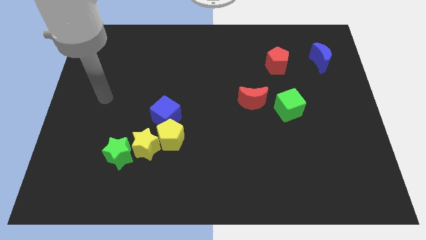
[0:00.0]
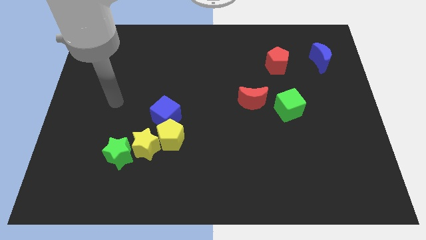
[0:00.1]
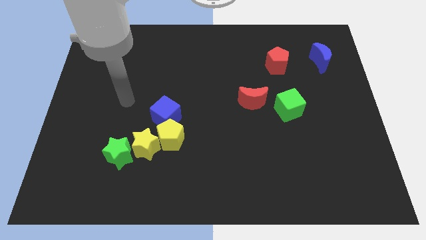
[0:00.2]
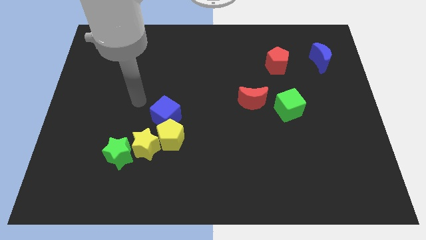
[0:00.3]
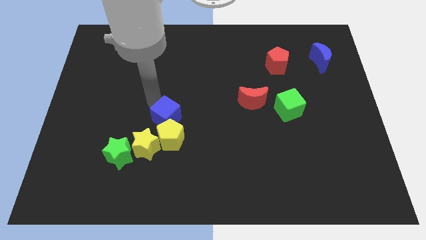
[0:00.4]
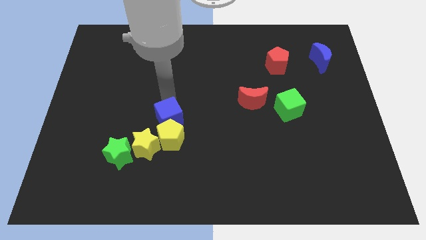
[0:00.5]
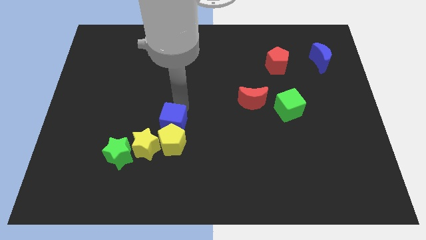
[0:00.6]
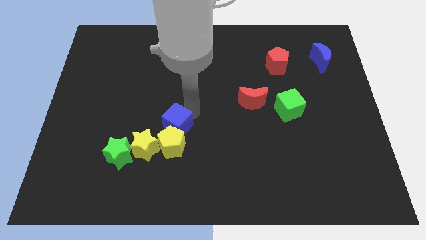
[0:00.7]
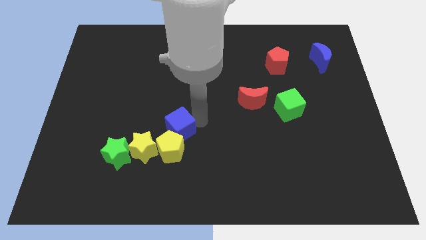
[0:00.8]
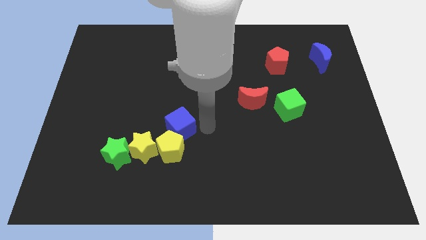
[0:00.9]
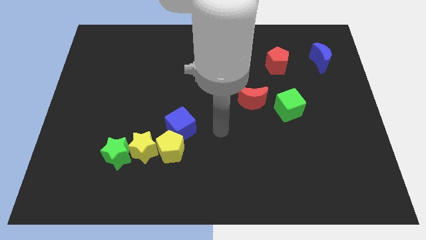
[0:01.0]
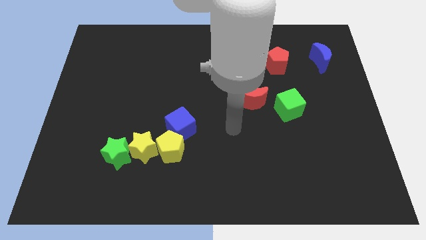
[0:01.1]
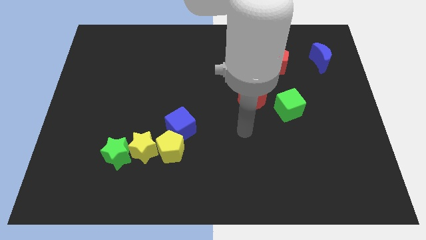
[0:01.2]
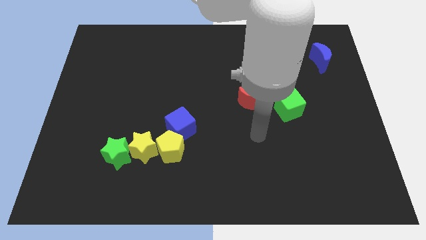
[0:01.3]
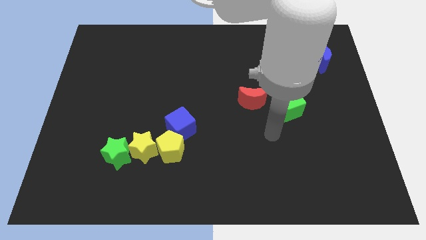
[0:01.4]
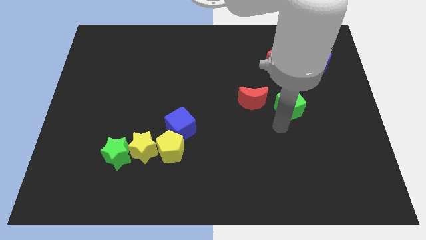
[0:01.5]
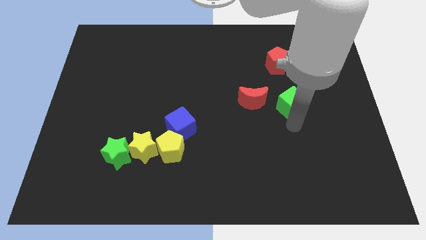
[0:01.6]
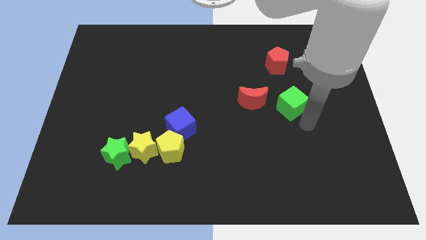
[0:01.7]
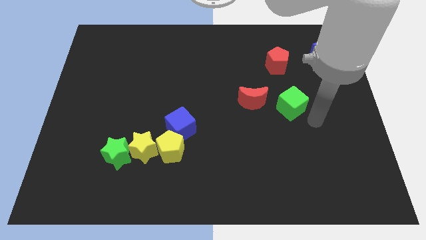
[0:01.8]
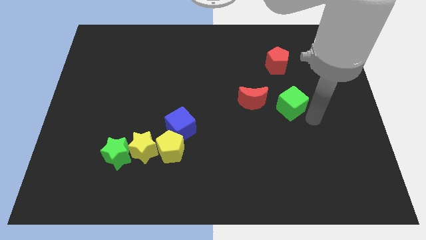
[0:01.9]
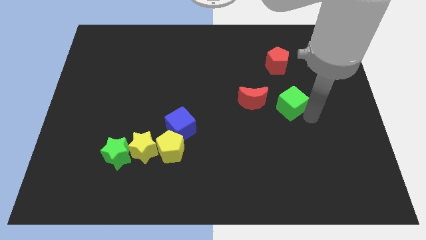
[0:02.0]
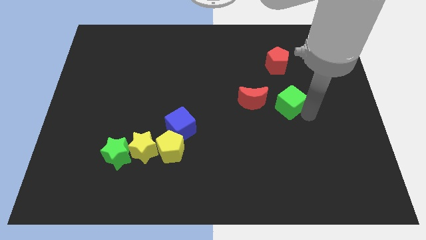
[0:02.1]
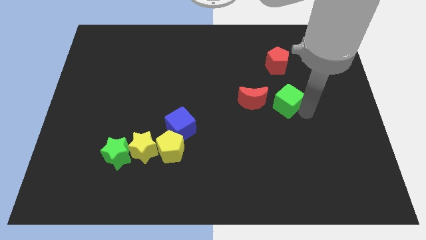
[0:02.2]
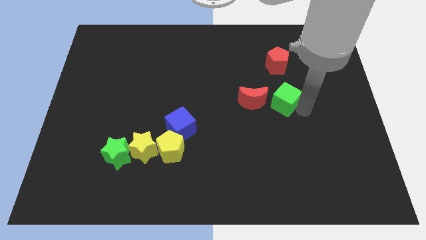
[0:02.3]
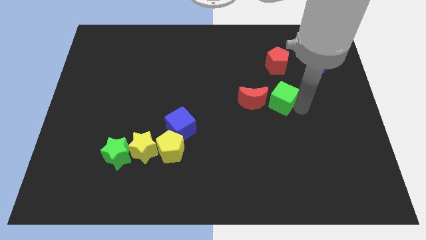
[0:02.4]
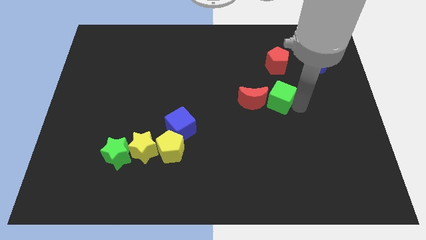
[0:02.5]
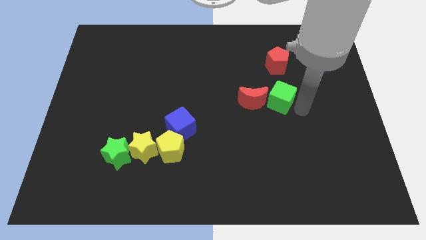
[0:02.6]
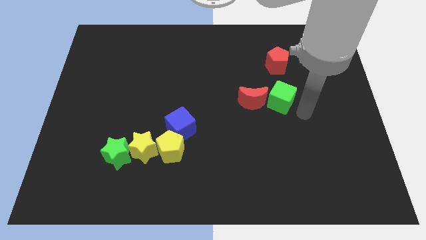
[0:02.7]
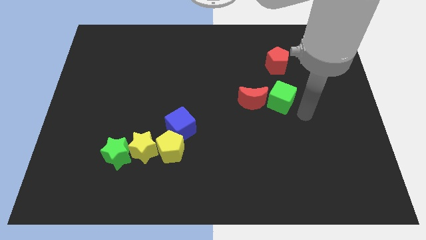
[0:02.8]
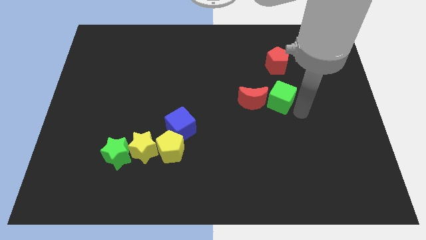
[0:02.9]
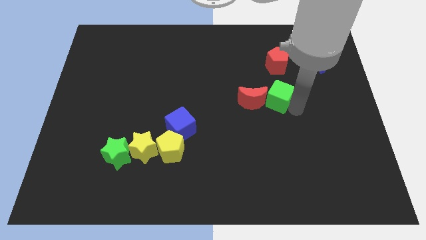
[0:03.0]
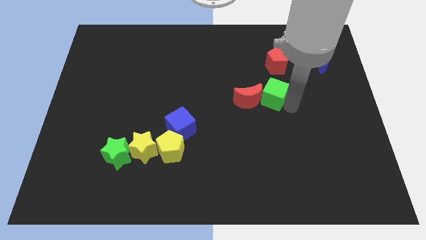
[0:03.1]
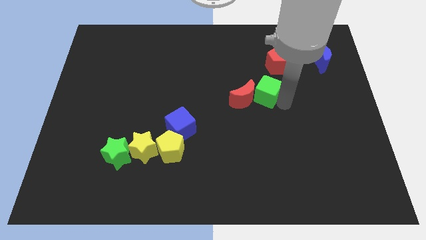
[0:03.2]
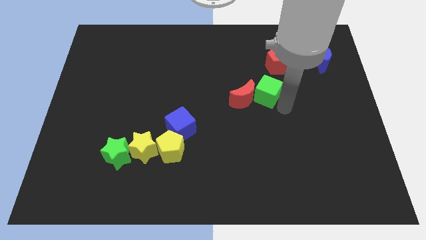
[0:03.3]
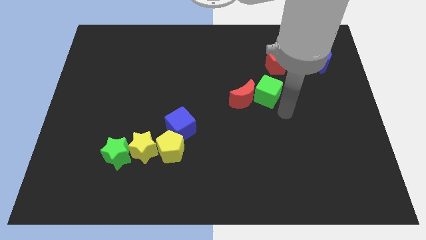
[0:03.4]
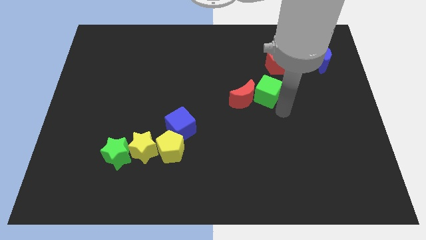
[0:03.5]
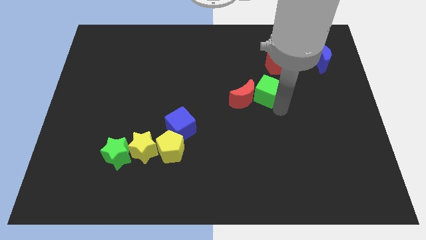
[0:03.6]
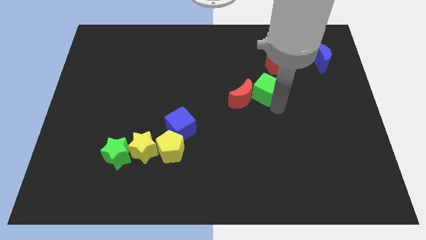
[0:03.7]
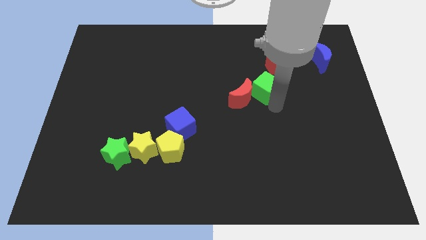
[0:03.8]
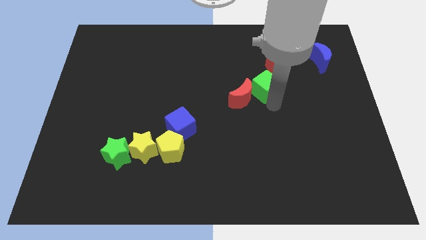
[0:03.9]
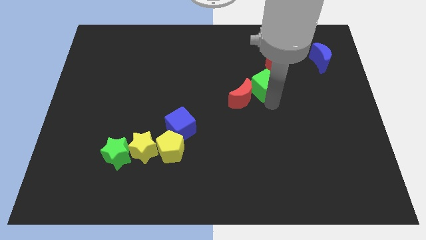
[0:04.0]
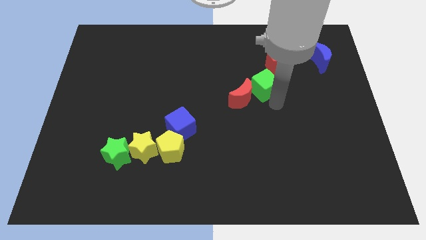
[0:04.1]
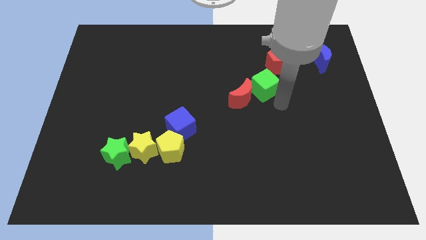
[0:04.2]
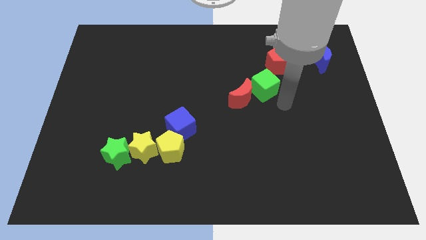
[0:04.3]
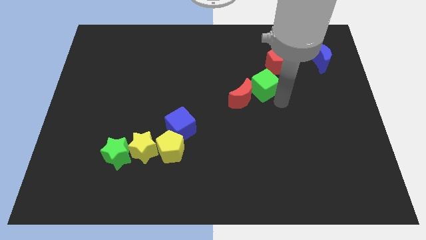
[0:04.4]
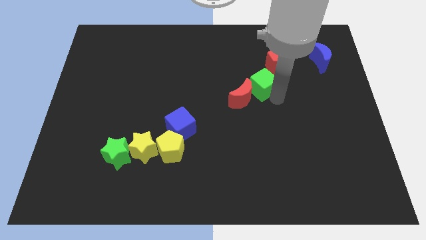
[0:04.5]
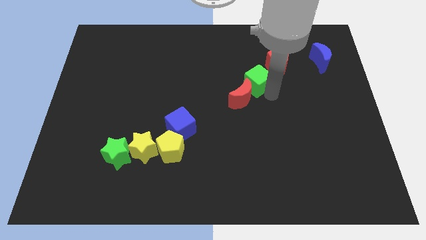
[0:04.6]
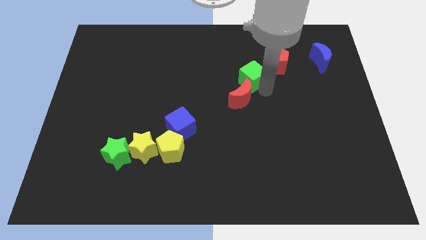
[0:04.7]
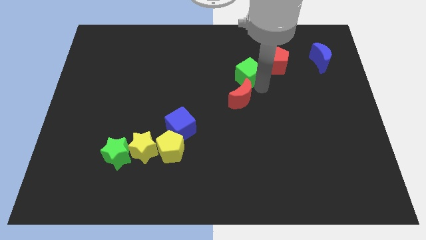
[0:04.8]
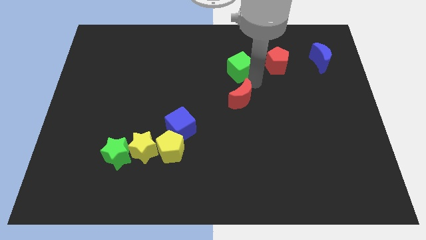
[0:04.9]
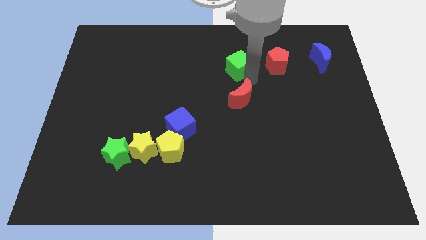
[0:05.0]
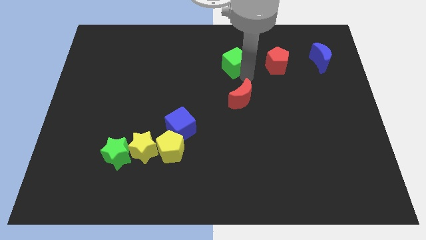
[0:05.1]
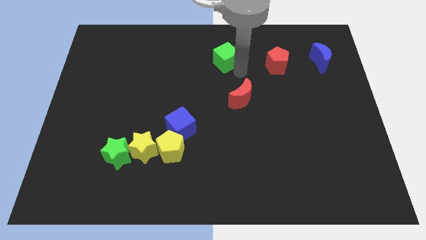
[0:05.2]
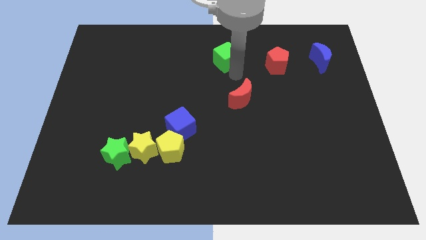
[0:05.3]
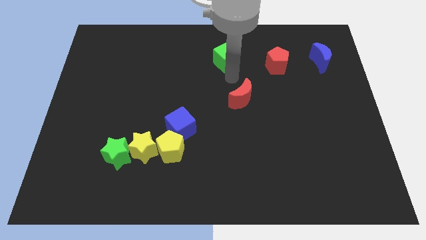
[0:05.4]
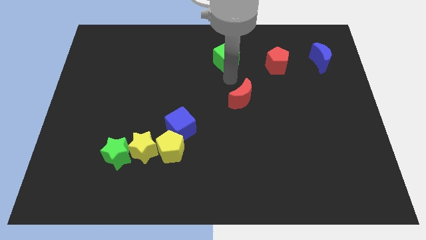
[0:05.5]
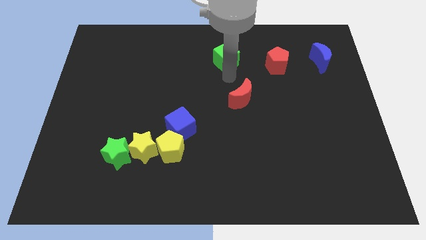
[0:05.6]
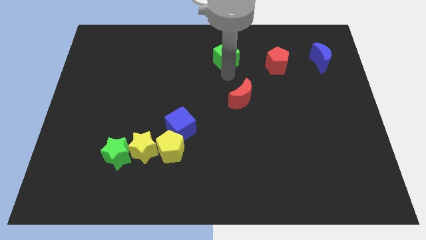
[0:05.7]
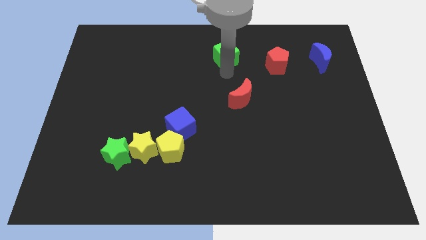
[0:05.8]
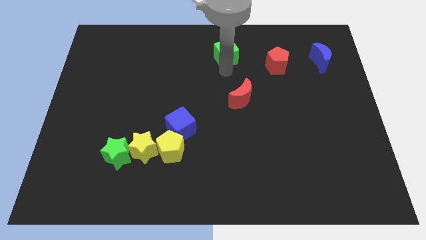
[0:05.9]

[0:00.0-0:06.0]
put the green cube to the top
